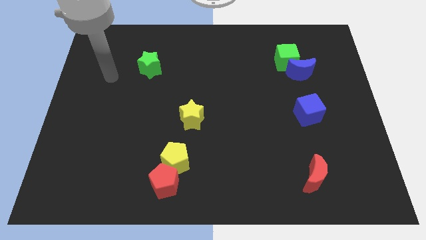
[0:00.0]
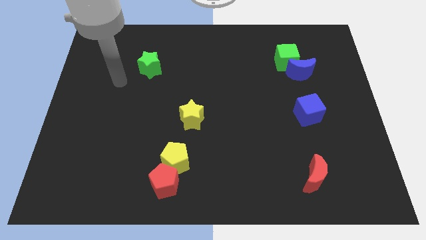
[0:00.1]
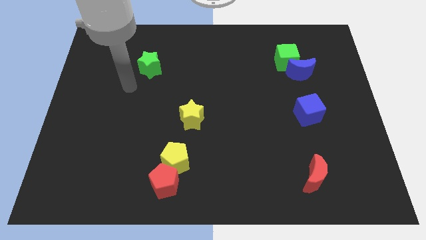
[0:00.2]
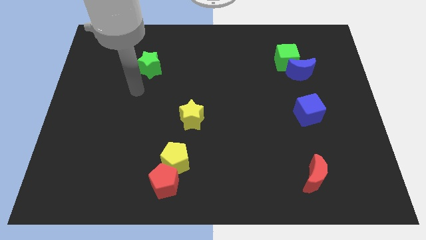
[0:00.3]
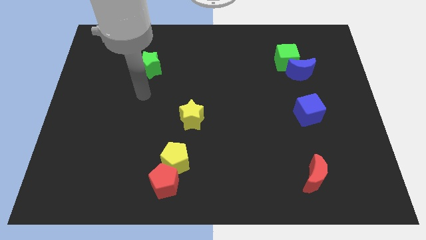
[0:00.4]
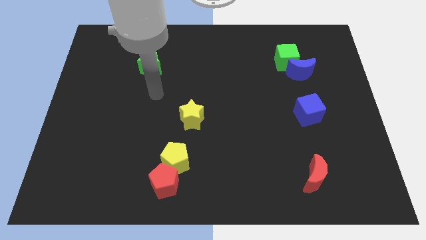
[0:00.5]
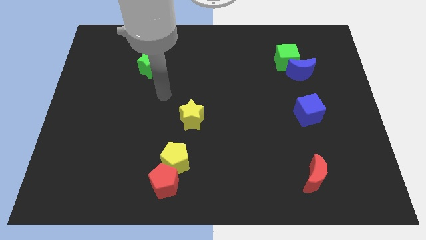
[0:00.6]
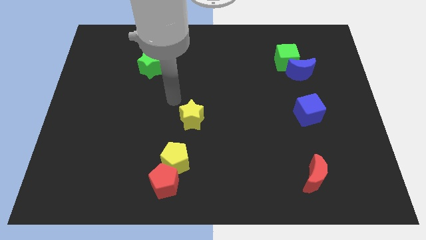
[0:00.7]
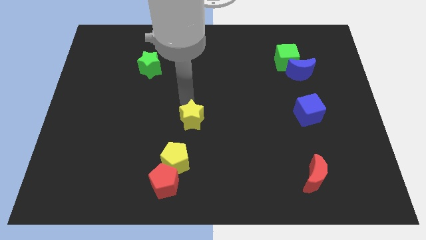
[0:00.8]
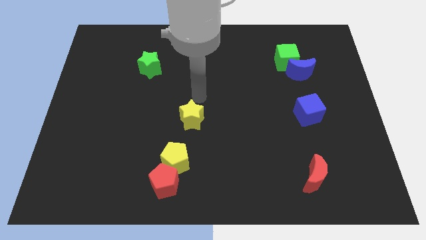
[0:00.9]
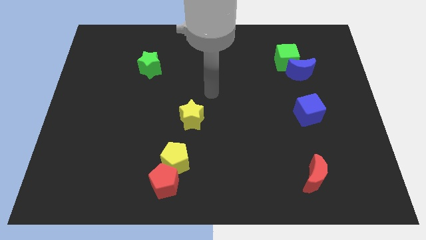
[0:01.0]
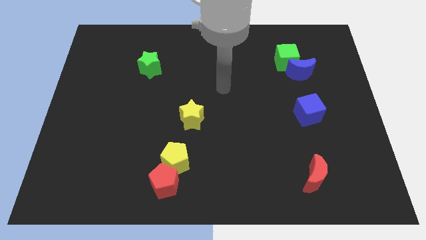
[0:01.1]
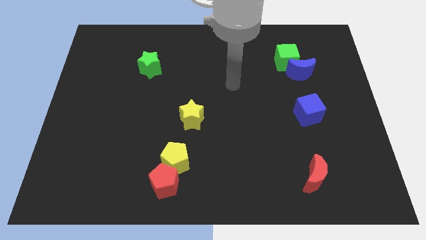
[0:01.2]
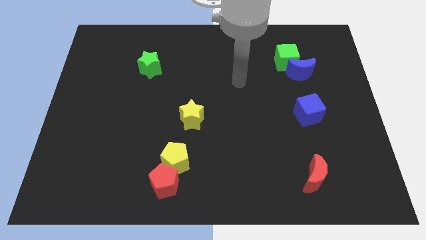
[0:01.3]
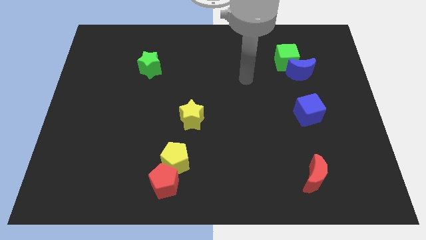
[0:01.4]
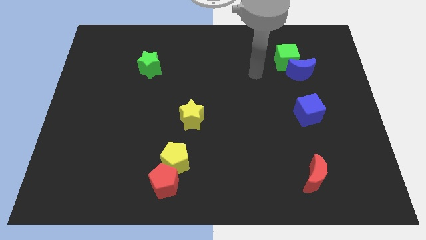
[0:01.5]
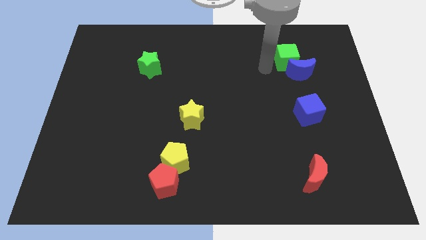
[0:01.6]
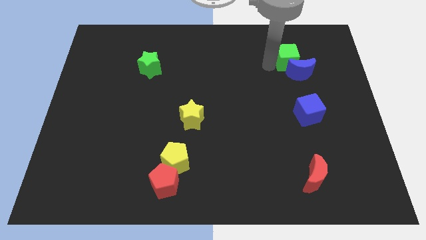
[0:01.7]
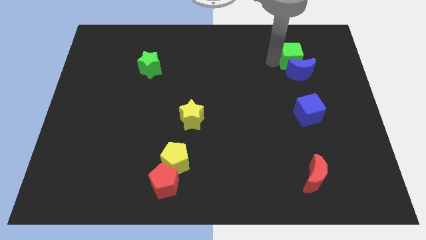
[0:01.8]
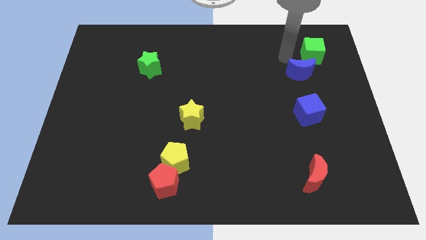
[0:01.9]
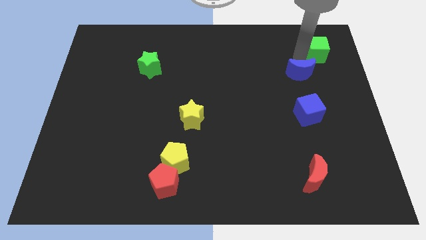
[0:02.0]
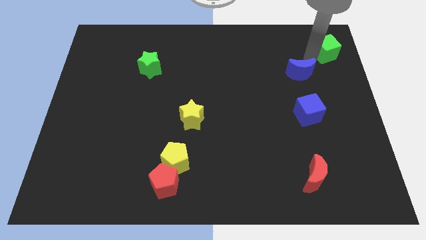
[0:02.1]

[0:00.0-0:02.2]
separate the blue moon from the green cube

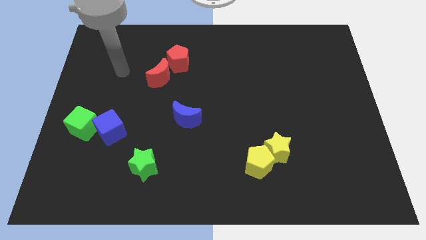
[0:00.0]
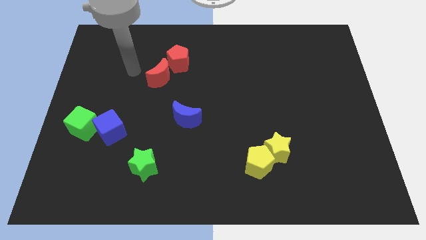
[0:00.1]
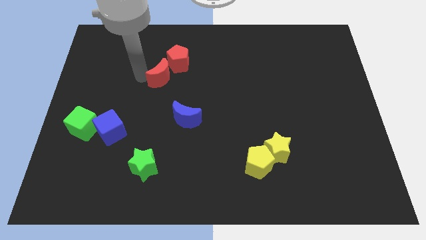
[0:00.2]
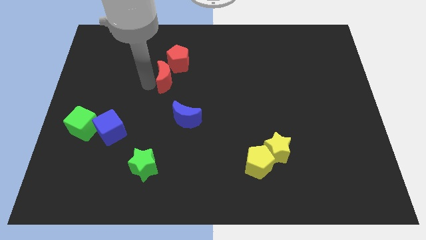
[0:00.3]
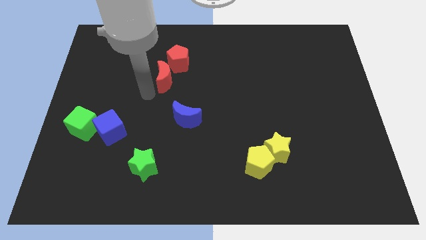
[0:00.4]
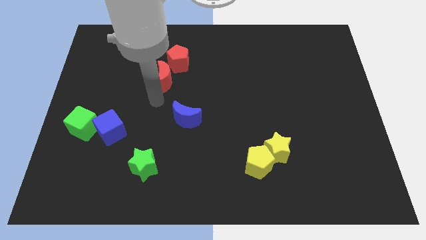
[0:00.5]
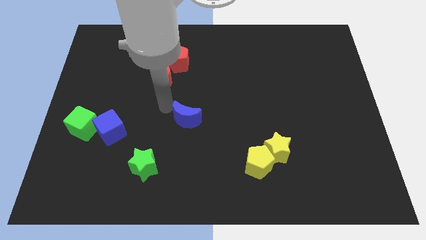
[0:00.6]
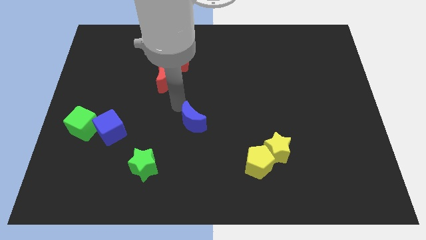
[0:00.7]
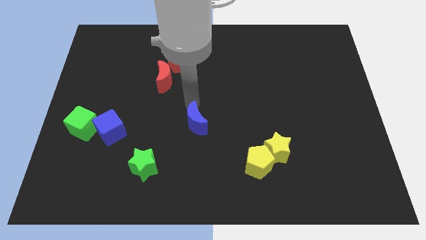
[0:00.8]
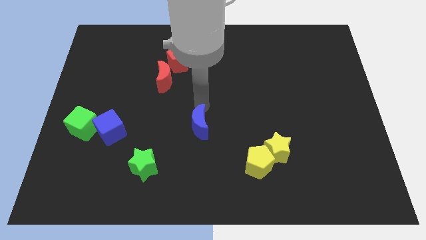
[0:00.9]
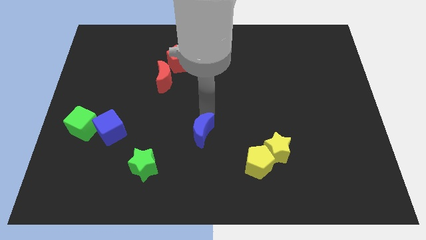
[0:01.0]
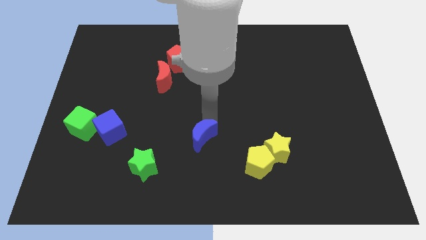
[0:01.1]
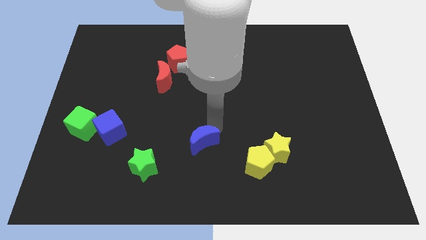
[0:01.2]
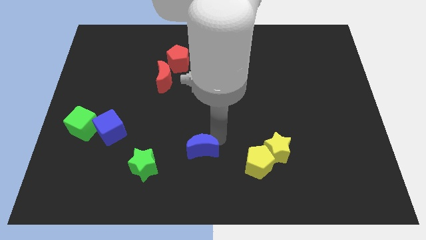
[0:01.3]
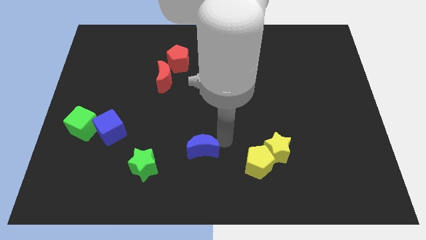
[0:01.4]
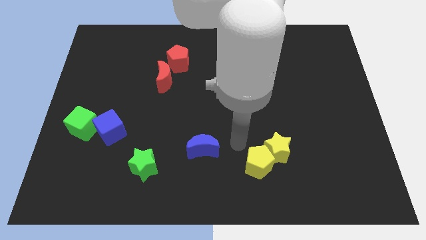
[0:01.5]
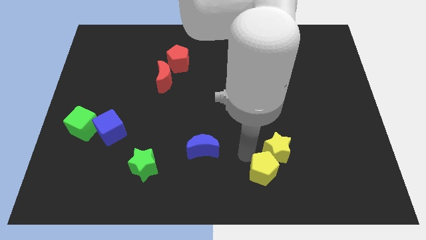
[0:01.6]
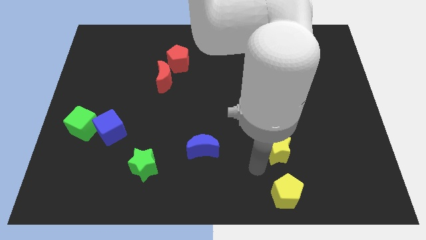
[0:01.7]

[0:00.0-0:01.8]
separate the yellow star from the yellow pentagon

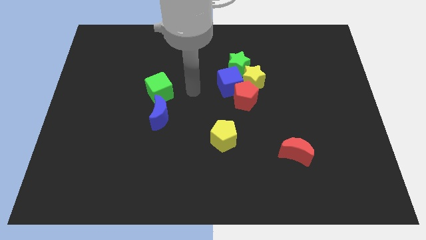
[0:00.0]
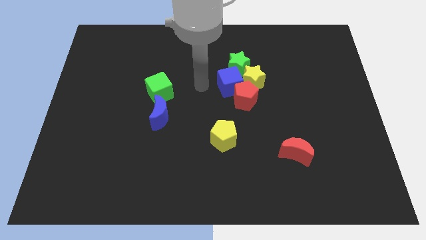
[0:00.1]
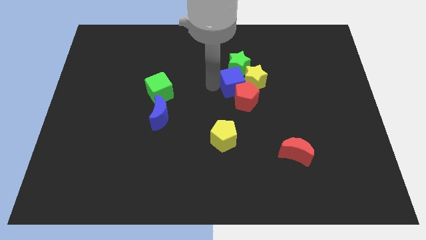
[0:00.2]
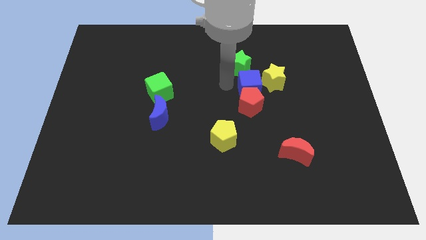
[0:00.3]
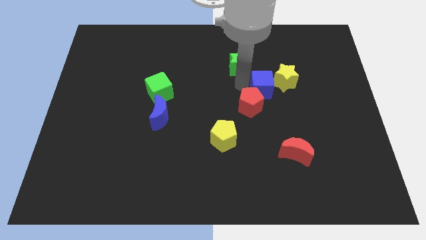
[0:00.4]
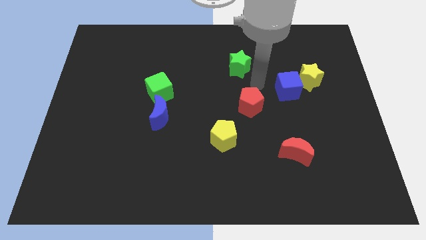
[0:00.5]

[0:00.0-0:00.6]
pull the yellow star apart from the group

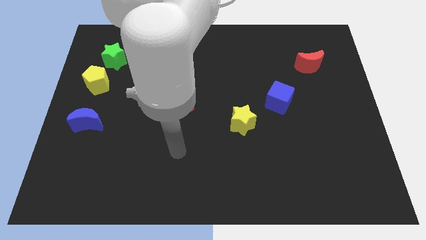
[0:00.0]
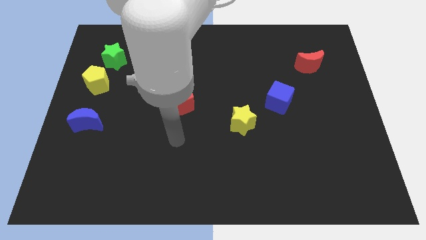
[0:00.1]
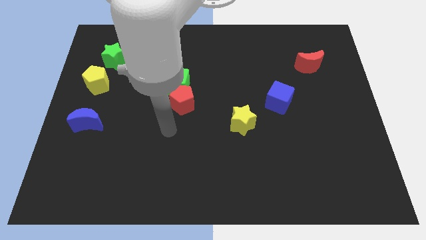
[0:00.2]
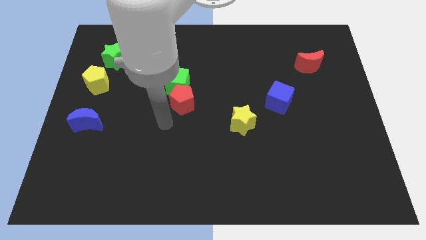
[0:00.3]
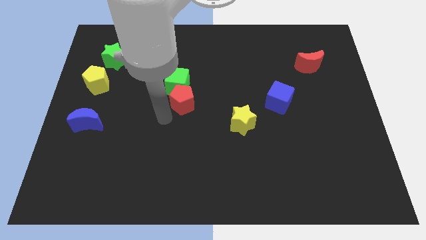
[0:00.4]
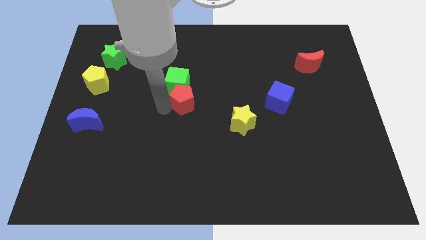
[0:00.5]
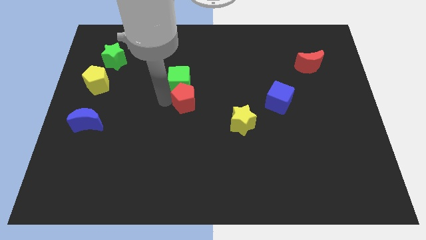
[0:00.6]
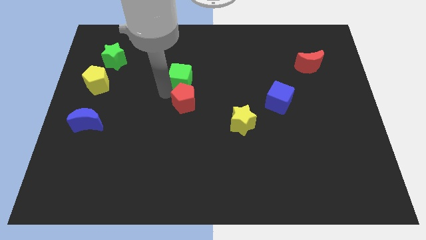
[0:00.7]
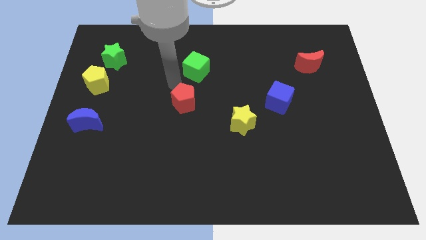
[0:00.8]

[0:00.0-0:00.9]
separate the red pentagon from the green cube

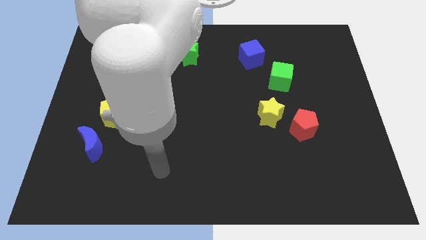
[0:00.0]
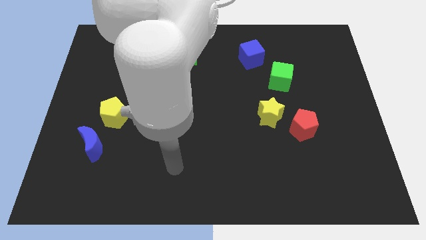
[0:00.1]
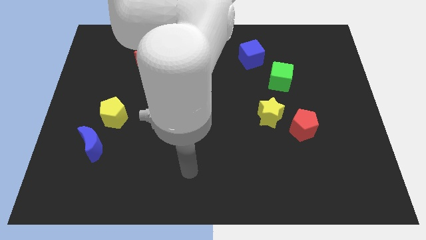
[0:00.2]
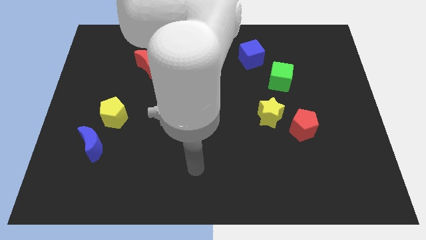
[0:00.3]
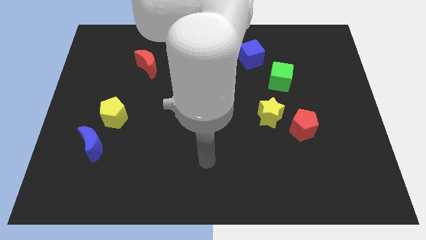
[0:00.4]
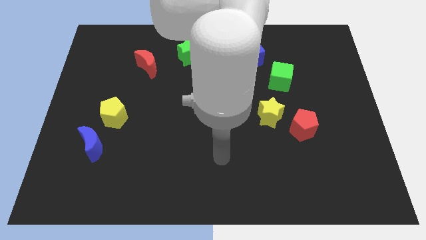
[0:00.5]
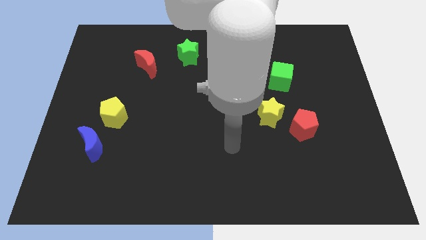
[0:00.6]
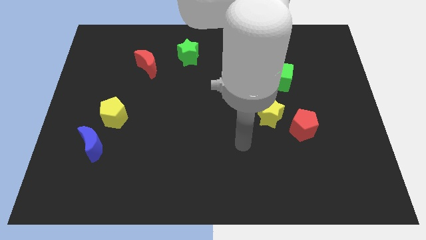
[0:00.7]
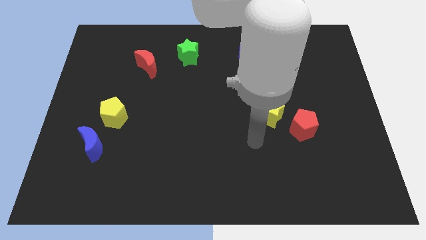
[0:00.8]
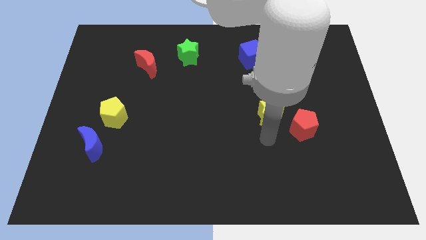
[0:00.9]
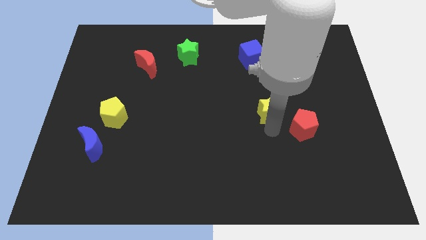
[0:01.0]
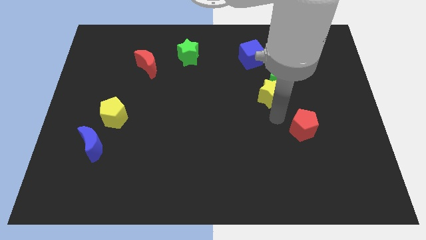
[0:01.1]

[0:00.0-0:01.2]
pull the red pentagon apart from the yellow star

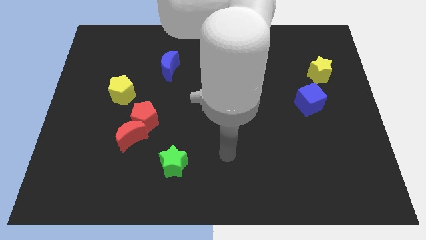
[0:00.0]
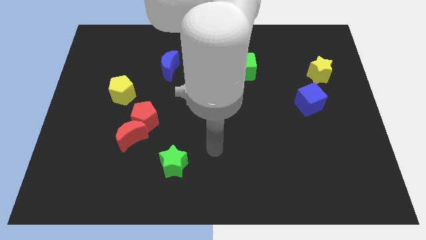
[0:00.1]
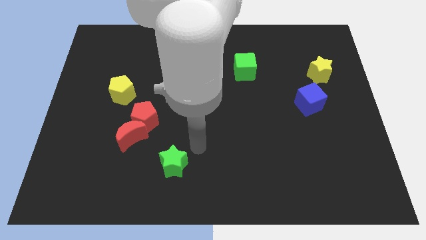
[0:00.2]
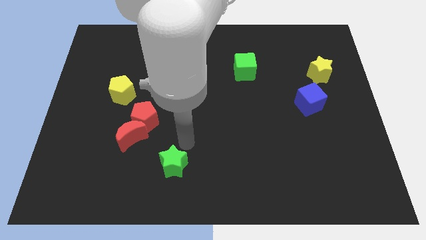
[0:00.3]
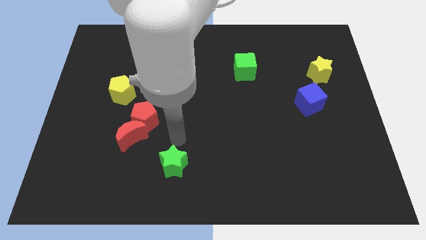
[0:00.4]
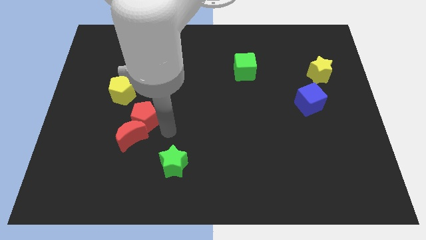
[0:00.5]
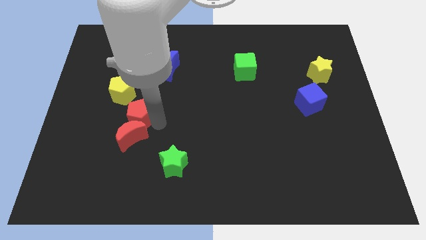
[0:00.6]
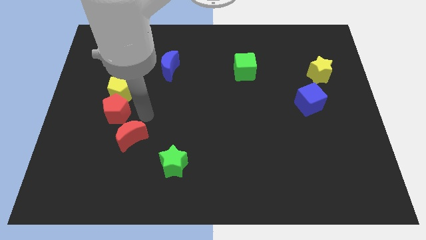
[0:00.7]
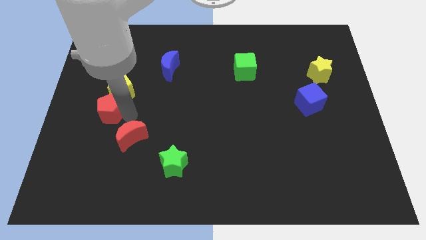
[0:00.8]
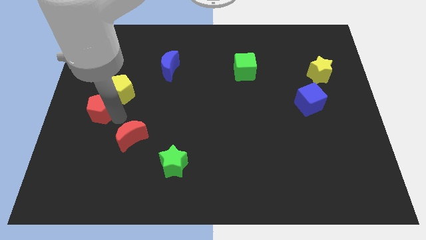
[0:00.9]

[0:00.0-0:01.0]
separate the red moon from the red pentagon

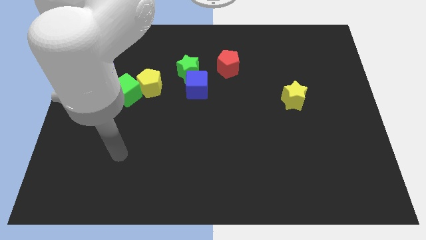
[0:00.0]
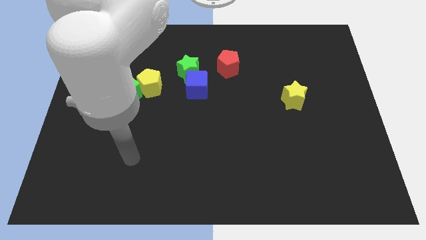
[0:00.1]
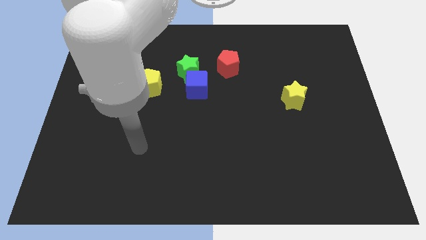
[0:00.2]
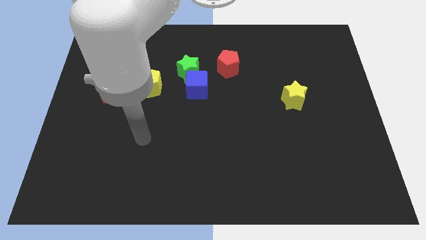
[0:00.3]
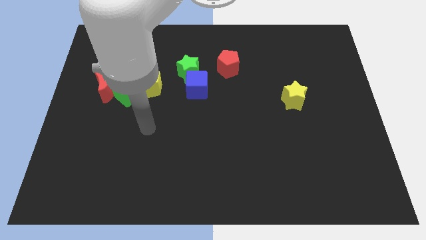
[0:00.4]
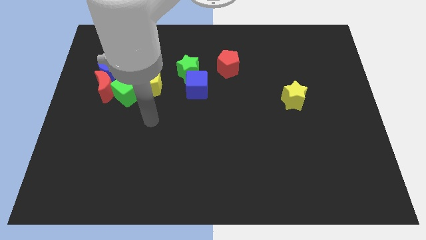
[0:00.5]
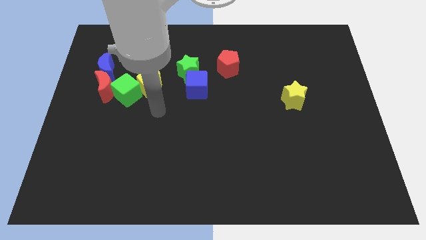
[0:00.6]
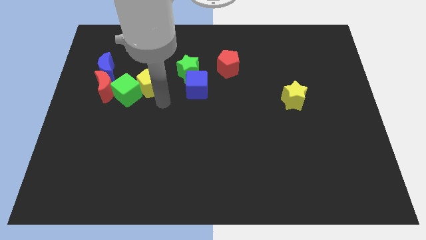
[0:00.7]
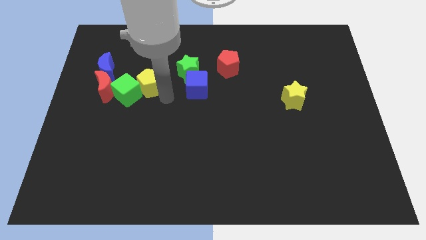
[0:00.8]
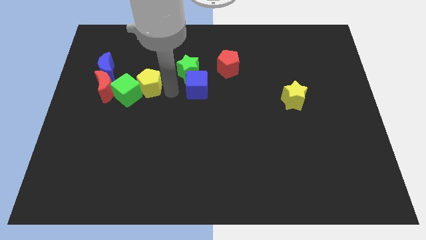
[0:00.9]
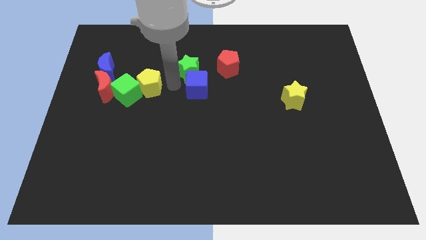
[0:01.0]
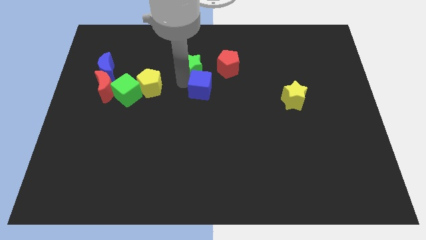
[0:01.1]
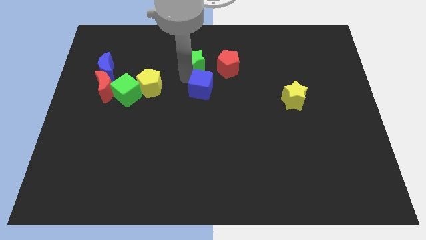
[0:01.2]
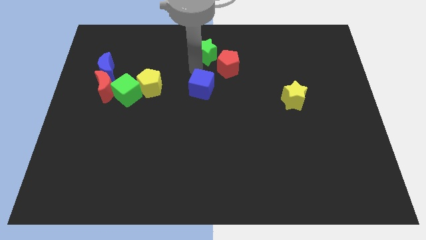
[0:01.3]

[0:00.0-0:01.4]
separate the blue cube from the green star
